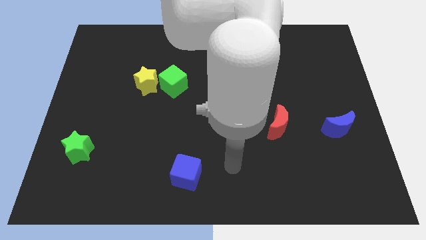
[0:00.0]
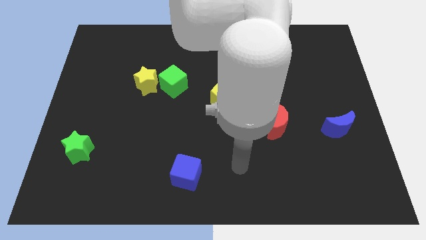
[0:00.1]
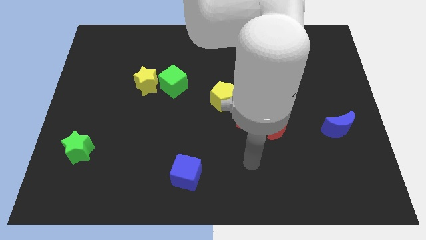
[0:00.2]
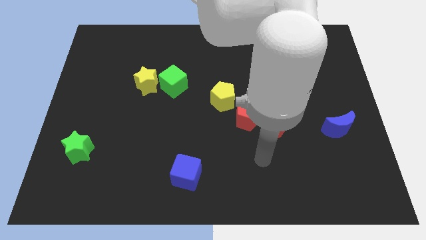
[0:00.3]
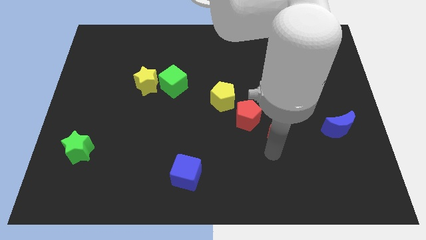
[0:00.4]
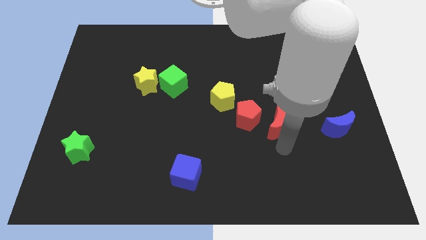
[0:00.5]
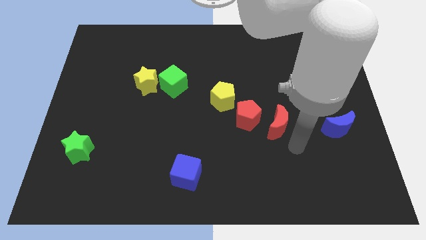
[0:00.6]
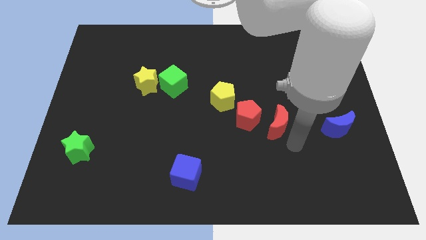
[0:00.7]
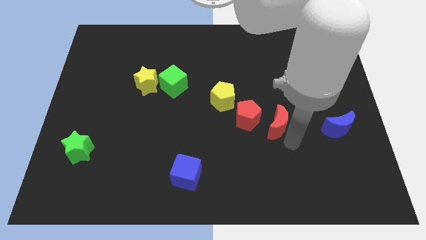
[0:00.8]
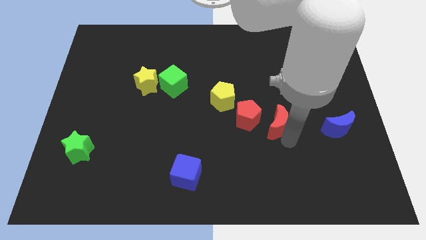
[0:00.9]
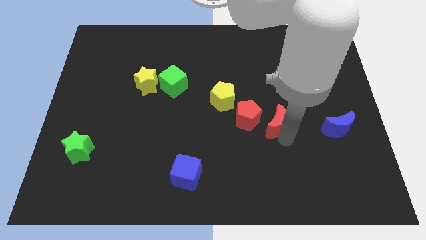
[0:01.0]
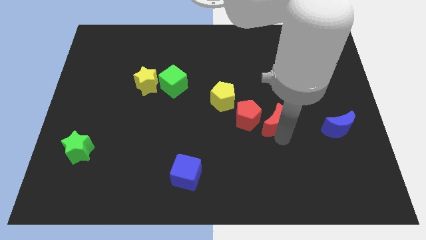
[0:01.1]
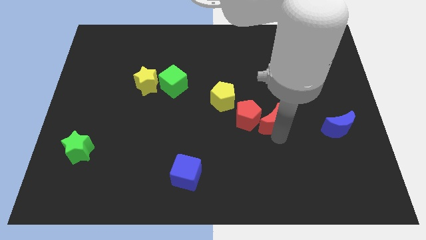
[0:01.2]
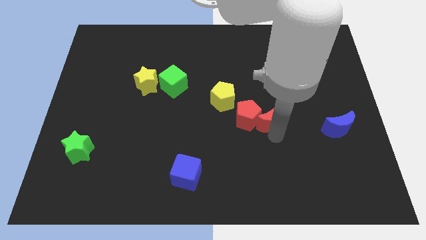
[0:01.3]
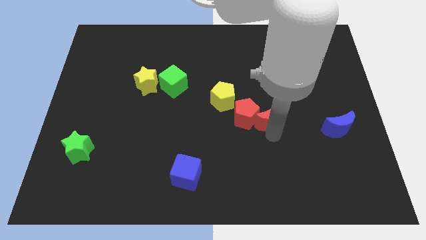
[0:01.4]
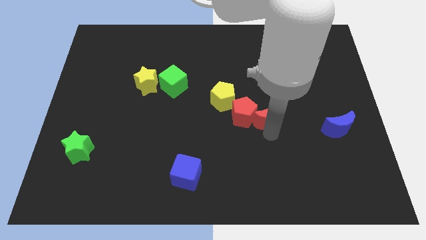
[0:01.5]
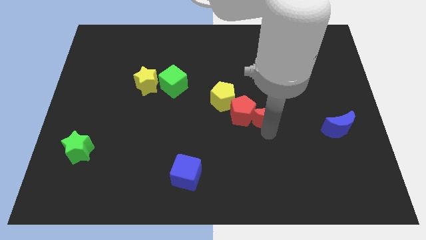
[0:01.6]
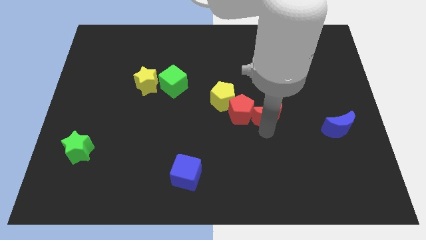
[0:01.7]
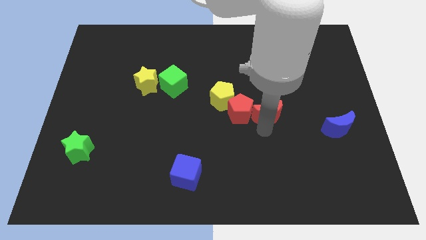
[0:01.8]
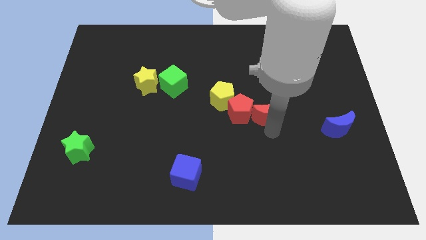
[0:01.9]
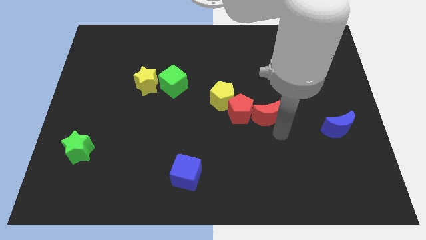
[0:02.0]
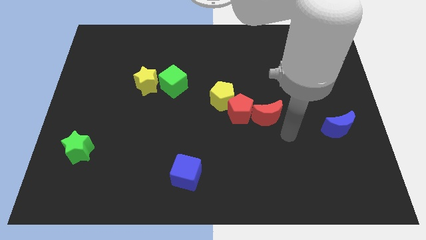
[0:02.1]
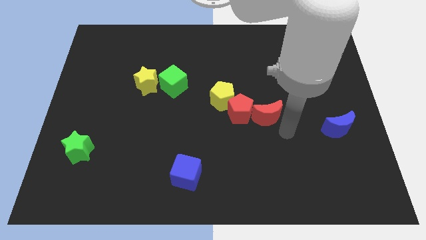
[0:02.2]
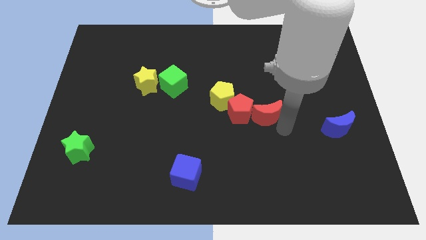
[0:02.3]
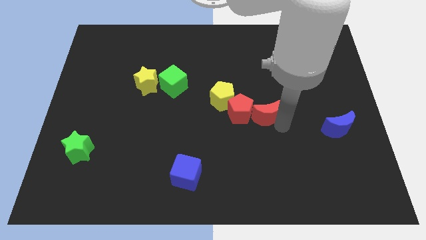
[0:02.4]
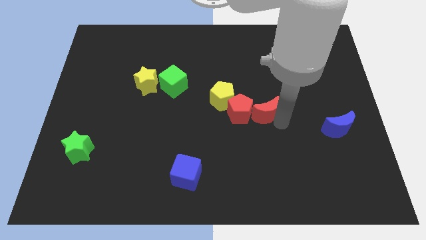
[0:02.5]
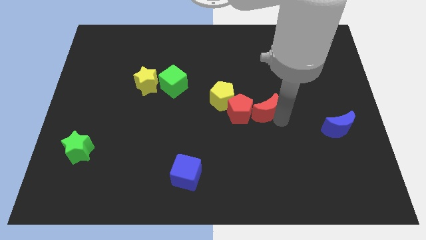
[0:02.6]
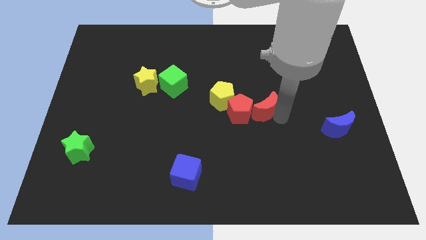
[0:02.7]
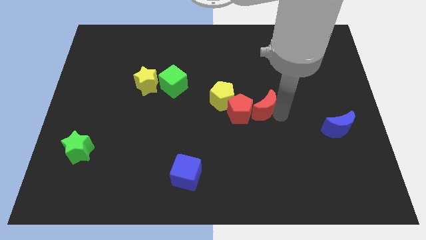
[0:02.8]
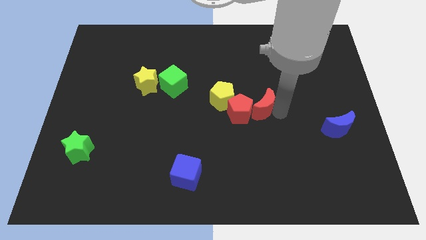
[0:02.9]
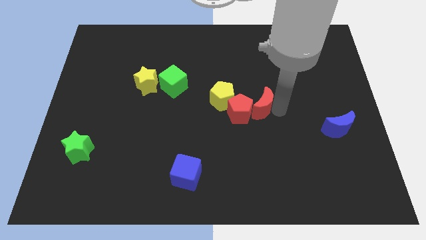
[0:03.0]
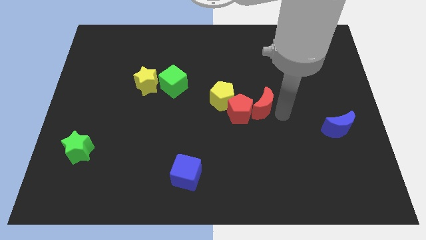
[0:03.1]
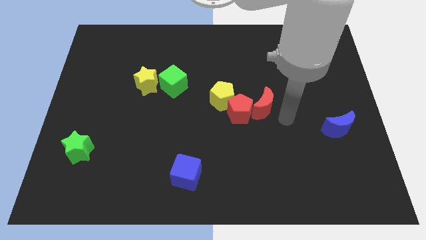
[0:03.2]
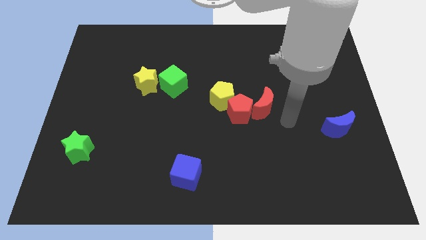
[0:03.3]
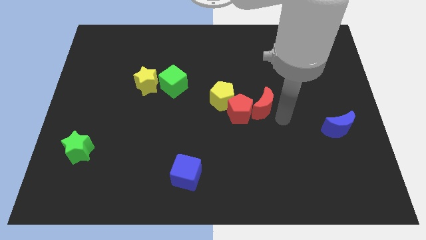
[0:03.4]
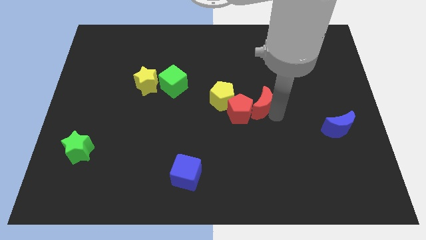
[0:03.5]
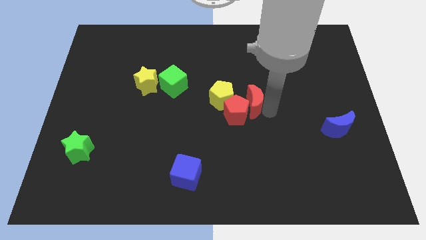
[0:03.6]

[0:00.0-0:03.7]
move the red moon up and left diagonally a little

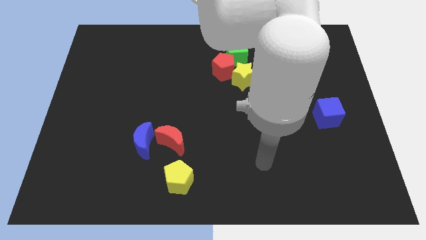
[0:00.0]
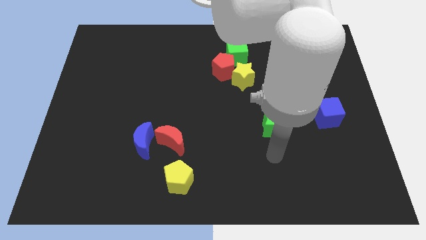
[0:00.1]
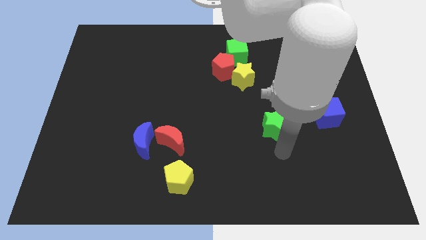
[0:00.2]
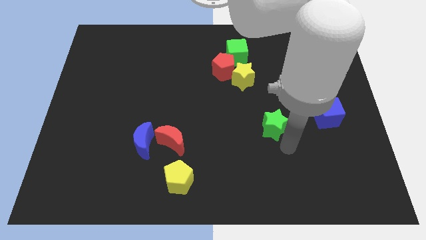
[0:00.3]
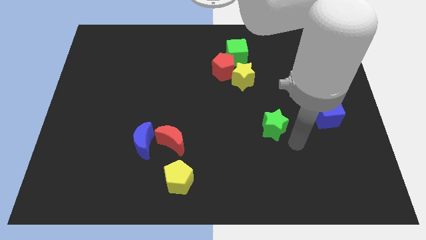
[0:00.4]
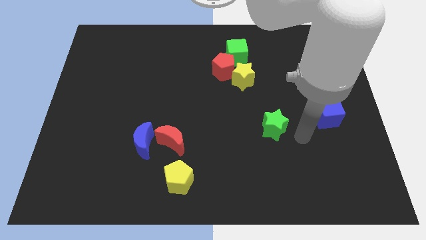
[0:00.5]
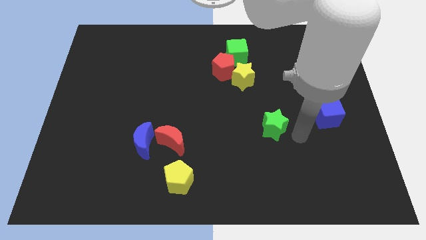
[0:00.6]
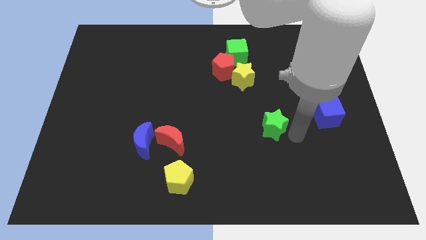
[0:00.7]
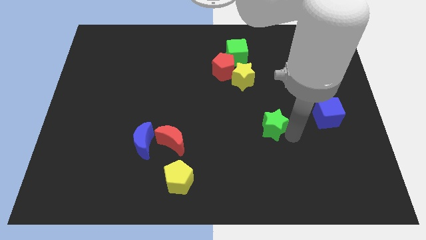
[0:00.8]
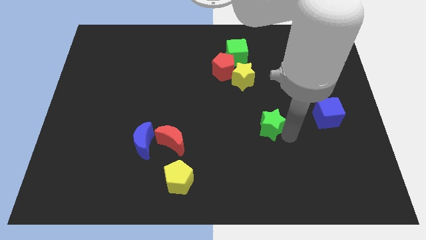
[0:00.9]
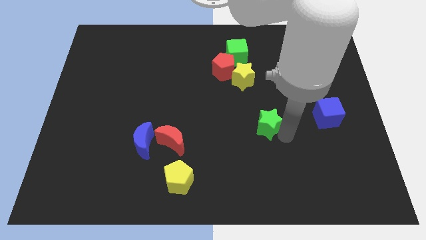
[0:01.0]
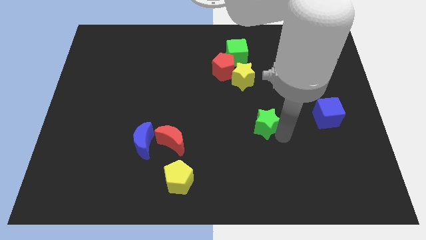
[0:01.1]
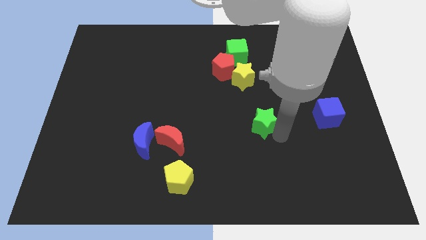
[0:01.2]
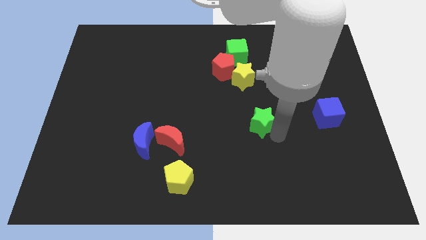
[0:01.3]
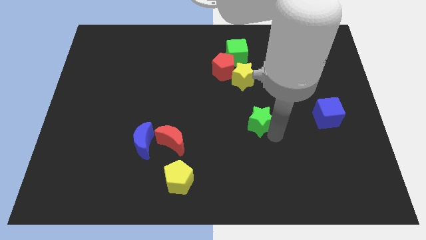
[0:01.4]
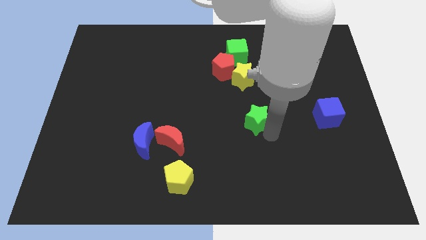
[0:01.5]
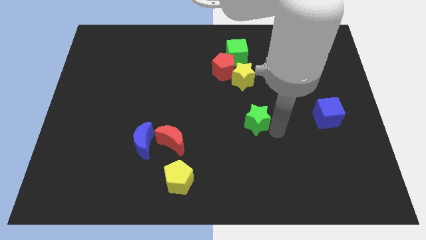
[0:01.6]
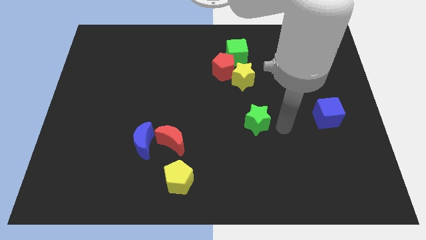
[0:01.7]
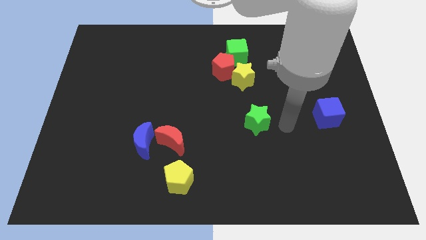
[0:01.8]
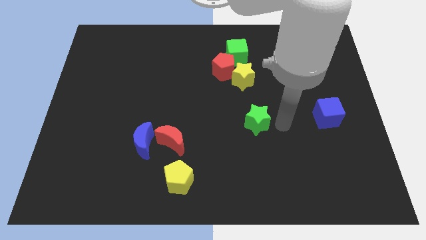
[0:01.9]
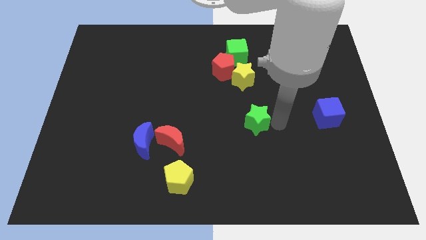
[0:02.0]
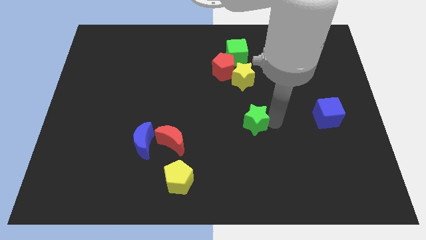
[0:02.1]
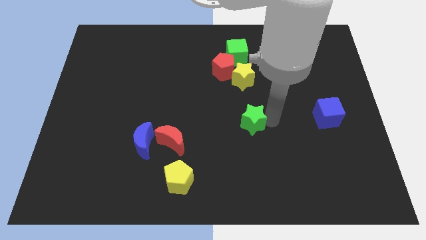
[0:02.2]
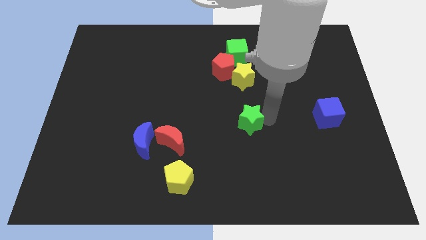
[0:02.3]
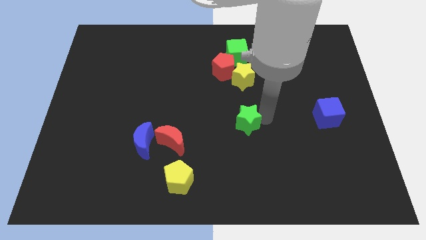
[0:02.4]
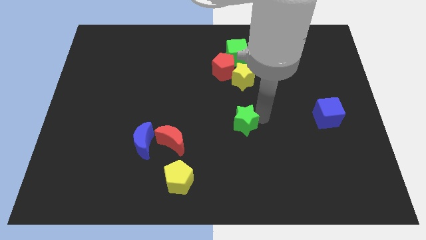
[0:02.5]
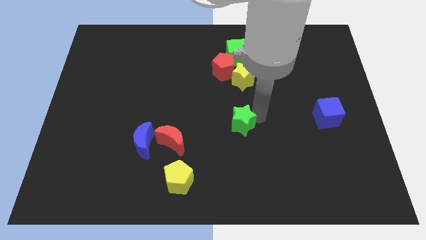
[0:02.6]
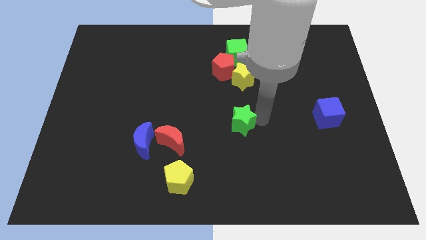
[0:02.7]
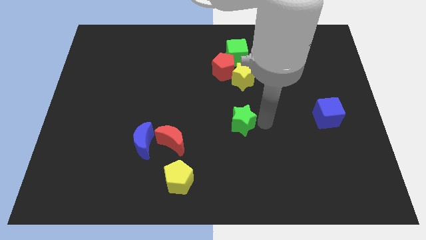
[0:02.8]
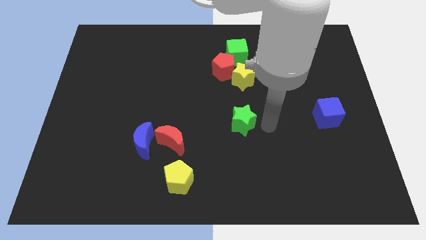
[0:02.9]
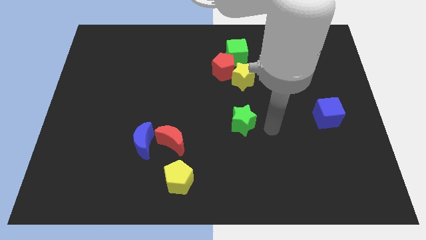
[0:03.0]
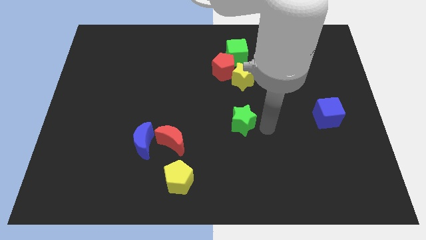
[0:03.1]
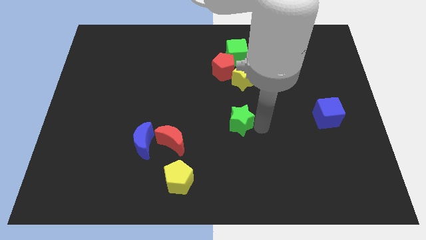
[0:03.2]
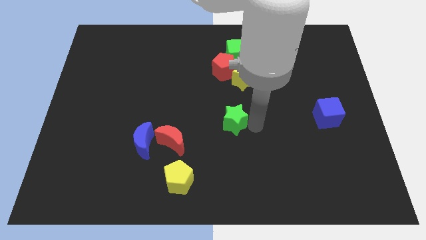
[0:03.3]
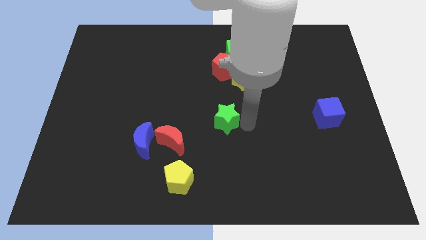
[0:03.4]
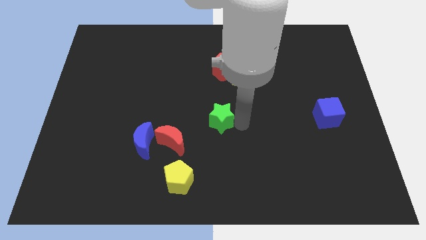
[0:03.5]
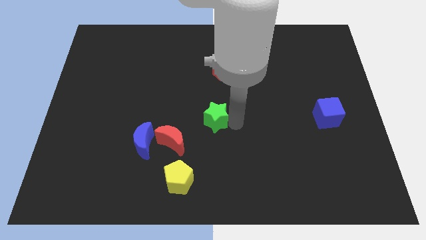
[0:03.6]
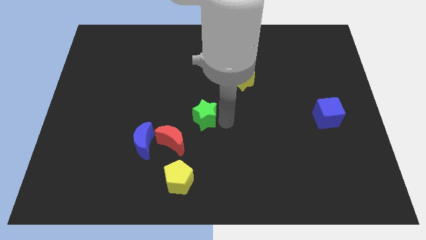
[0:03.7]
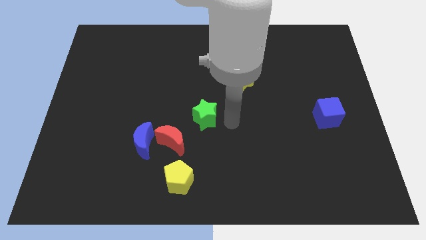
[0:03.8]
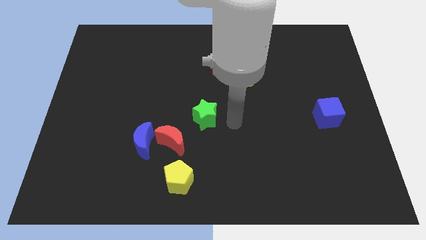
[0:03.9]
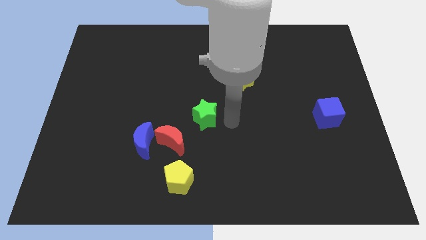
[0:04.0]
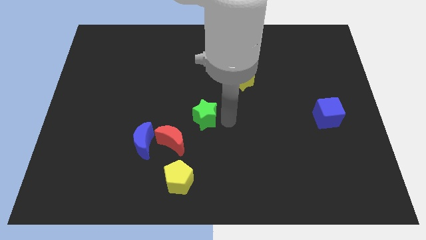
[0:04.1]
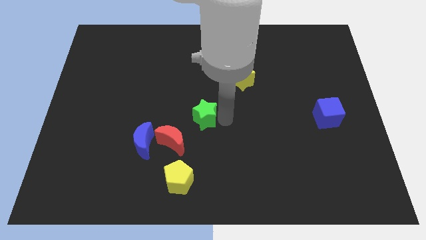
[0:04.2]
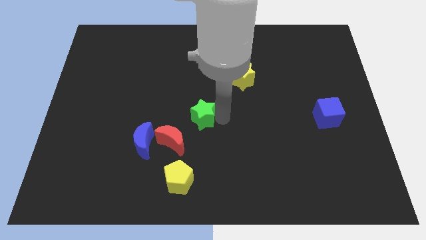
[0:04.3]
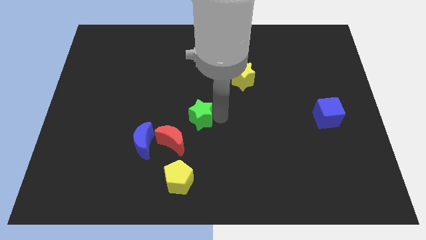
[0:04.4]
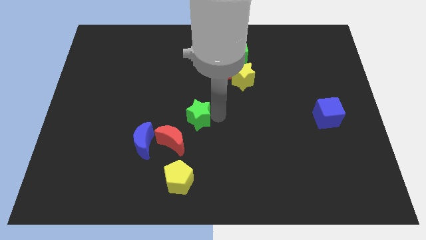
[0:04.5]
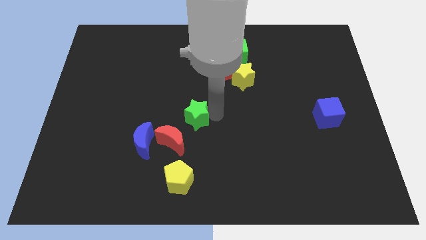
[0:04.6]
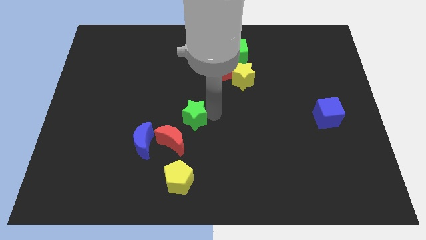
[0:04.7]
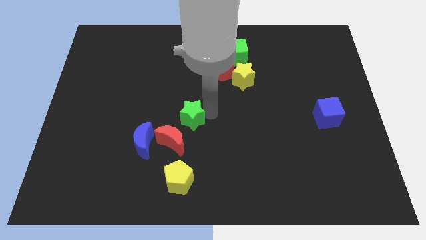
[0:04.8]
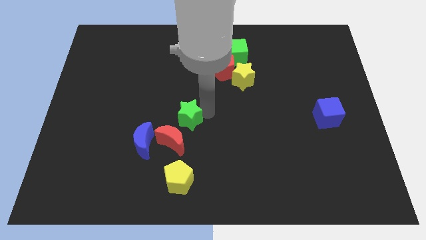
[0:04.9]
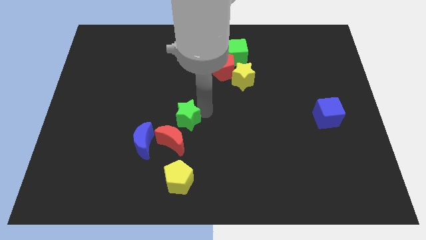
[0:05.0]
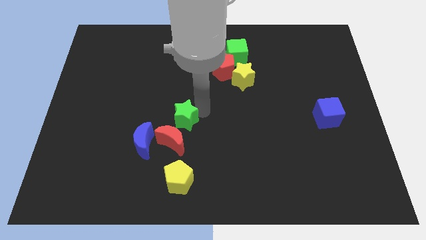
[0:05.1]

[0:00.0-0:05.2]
push the green star left
